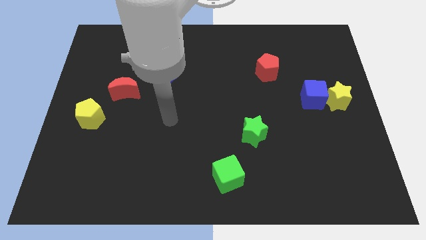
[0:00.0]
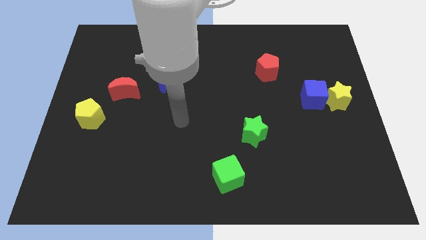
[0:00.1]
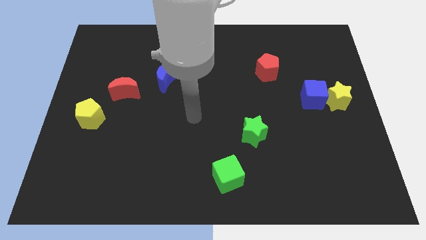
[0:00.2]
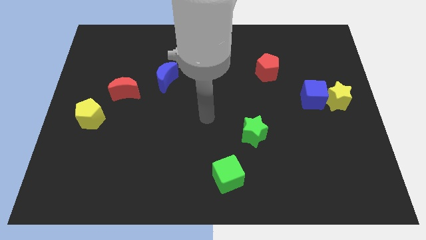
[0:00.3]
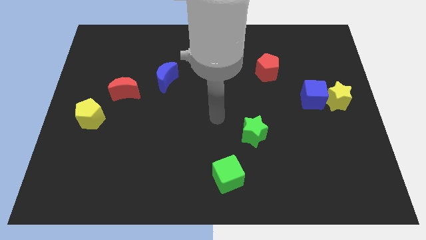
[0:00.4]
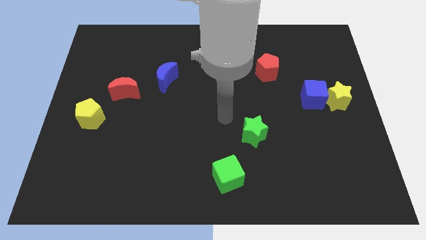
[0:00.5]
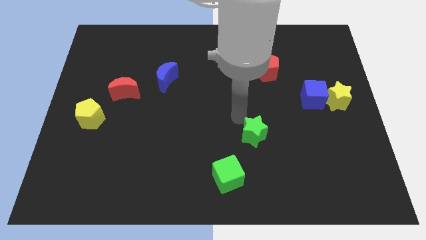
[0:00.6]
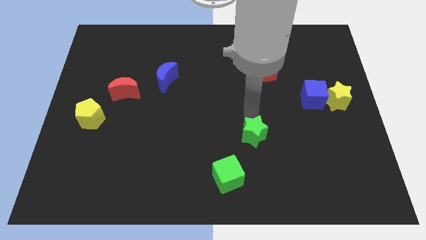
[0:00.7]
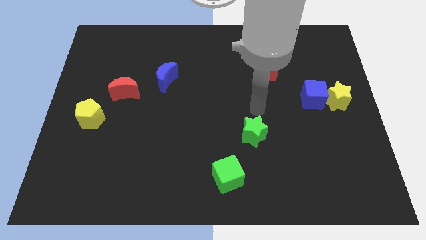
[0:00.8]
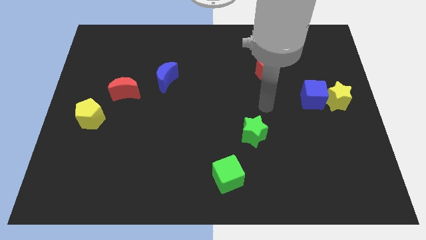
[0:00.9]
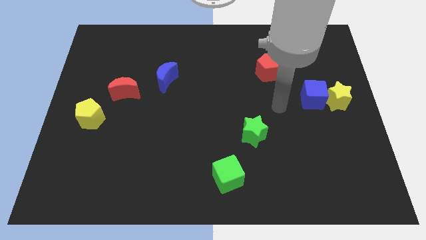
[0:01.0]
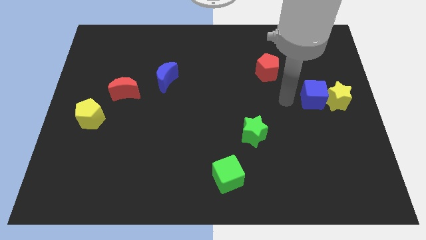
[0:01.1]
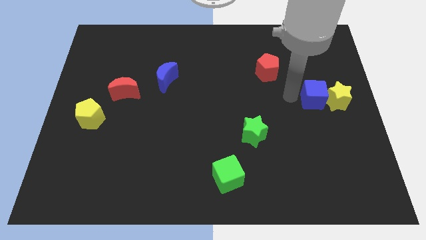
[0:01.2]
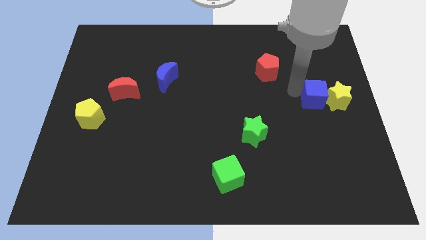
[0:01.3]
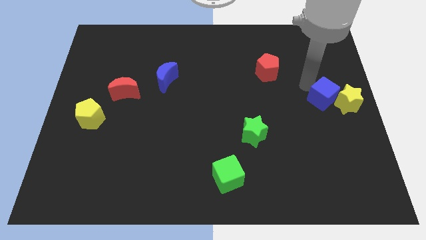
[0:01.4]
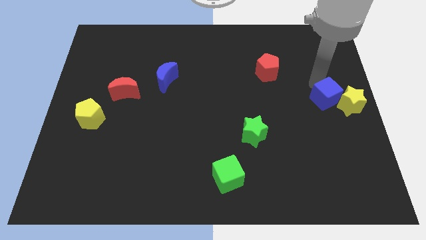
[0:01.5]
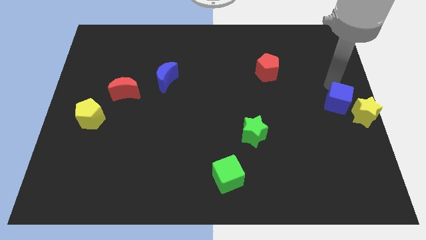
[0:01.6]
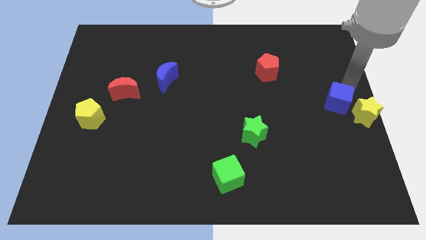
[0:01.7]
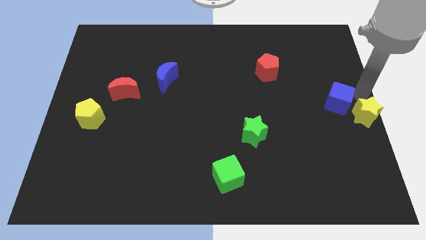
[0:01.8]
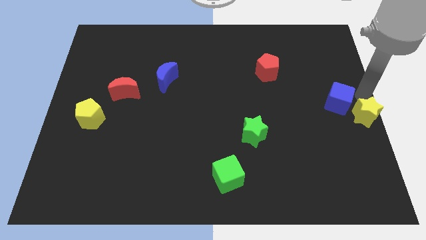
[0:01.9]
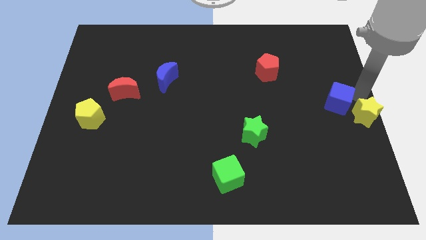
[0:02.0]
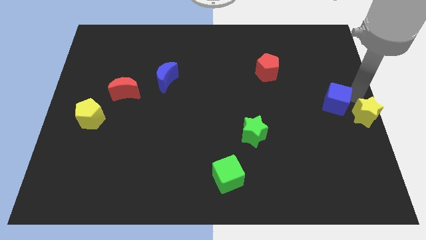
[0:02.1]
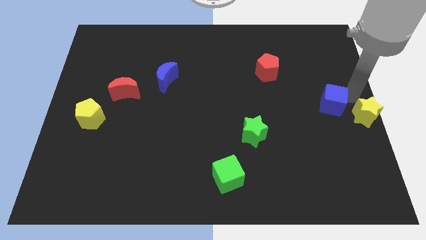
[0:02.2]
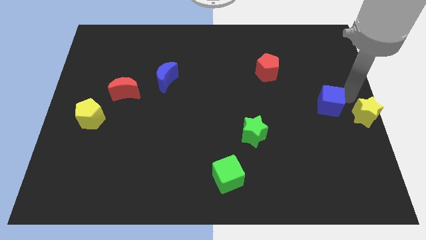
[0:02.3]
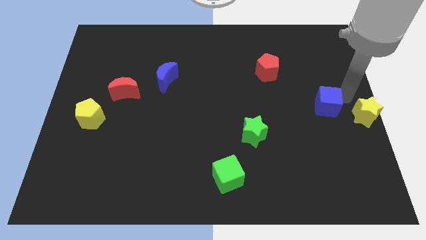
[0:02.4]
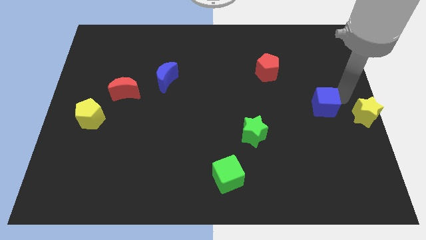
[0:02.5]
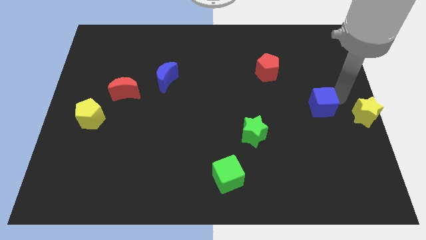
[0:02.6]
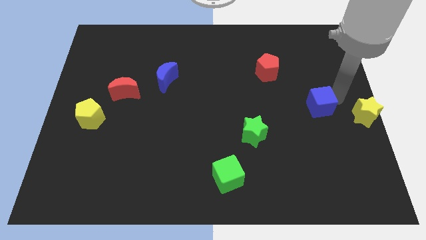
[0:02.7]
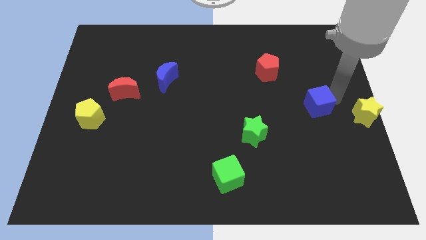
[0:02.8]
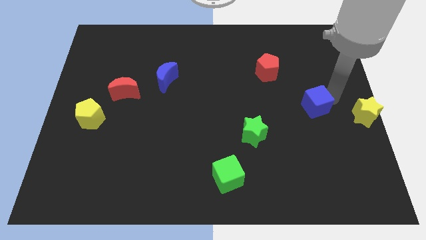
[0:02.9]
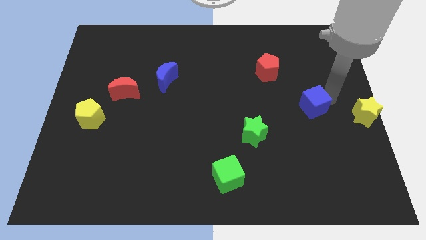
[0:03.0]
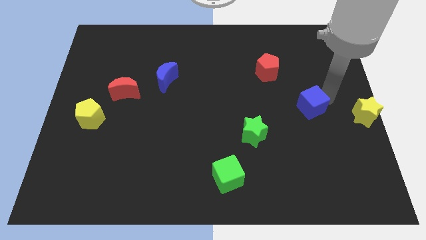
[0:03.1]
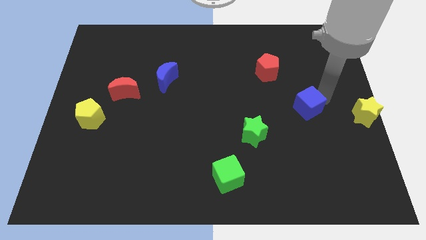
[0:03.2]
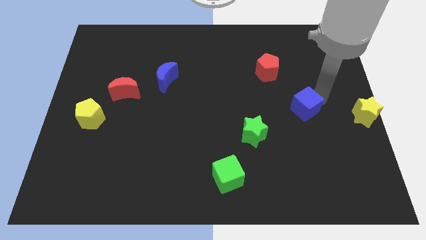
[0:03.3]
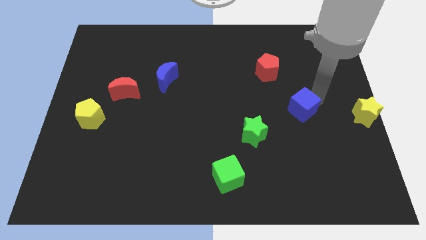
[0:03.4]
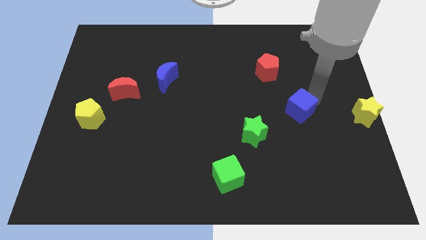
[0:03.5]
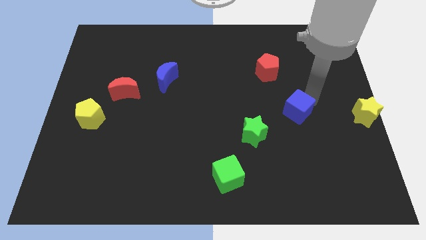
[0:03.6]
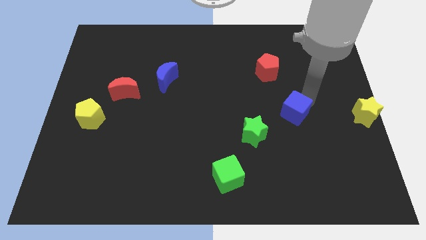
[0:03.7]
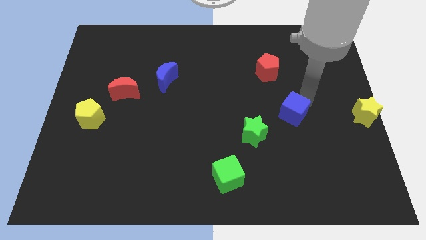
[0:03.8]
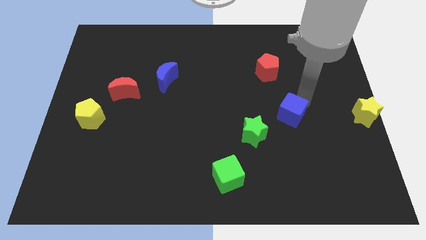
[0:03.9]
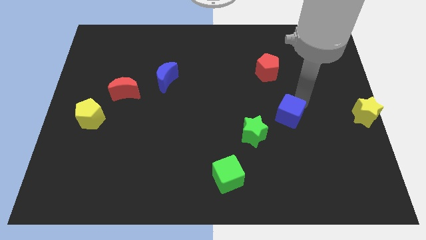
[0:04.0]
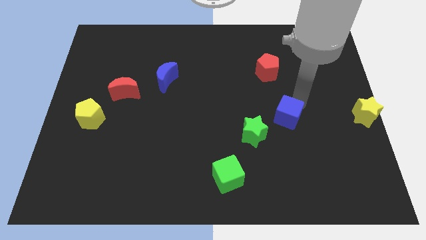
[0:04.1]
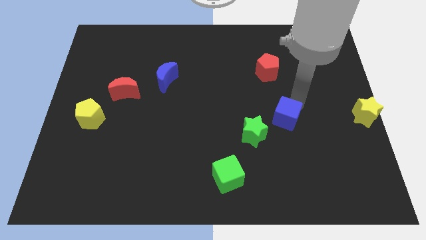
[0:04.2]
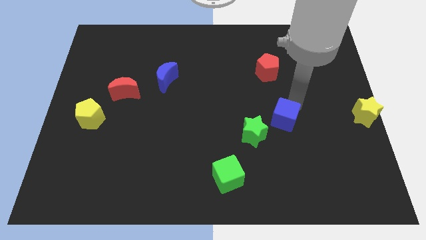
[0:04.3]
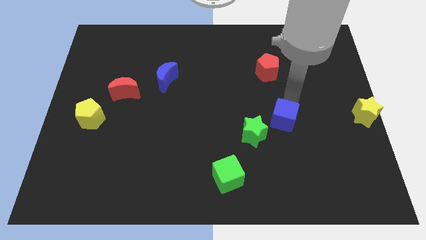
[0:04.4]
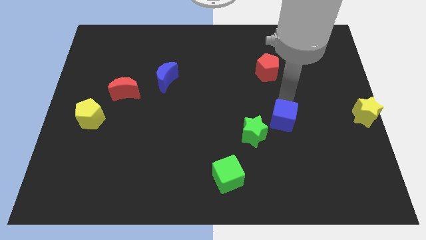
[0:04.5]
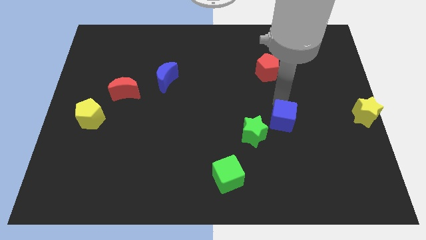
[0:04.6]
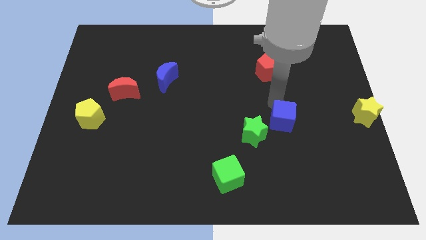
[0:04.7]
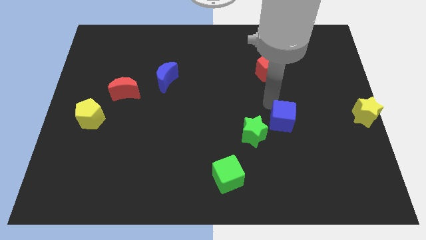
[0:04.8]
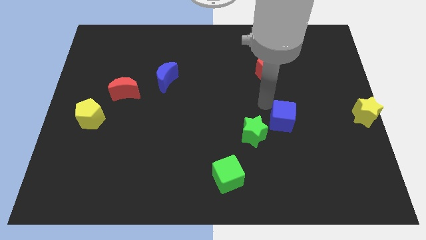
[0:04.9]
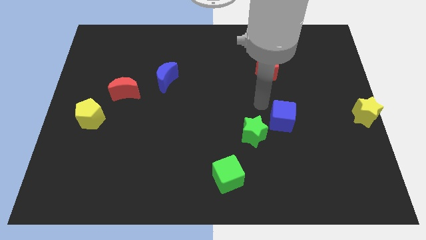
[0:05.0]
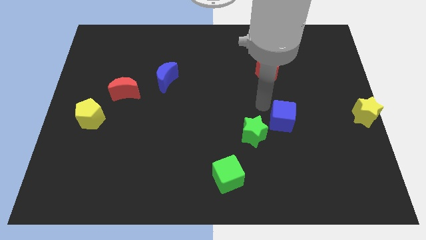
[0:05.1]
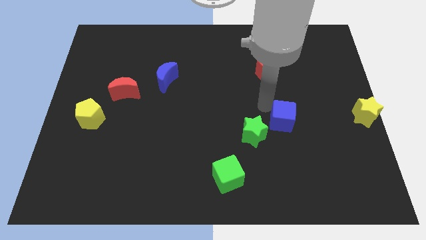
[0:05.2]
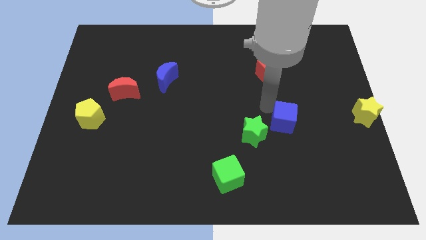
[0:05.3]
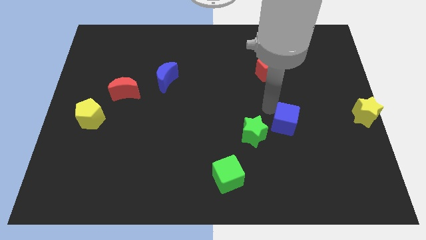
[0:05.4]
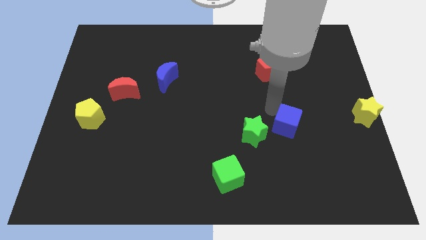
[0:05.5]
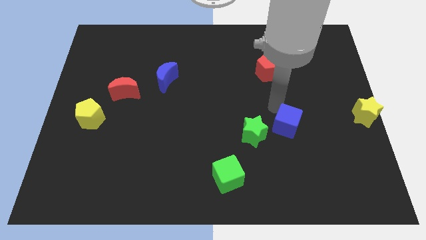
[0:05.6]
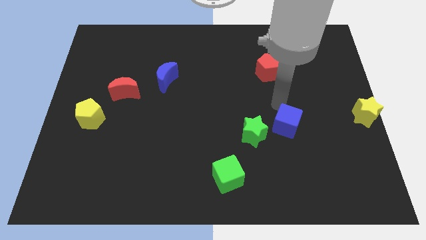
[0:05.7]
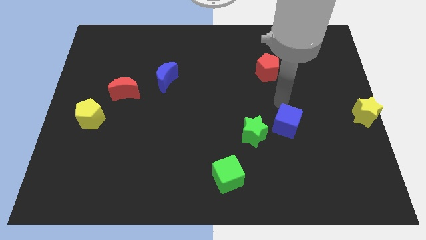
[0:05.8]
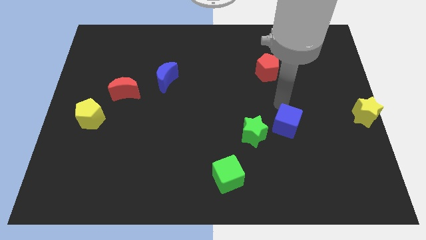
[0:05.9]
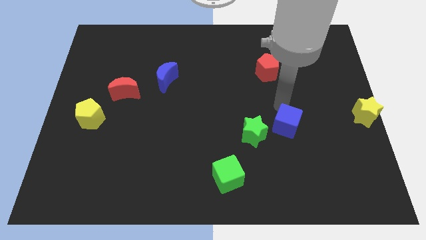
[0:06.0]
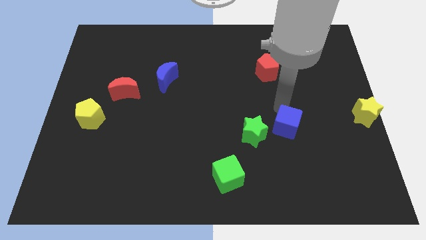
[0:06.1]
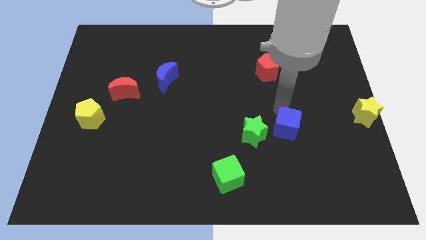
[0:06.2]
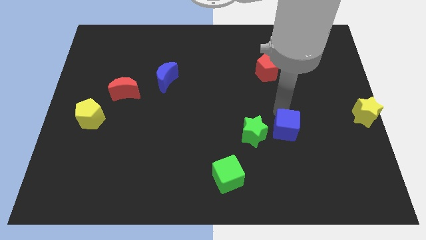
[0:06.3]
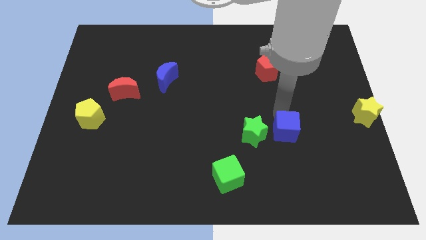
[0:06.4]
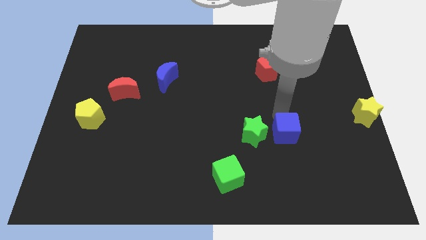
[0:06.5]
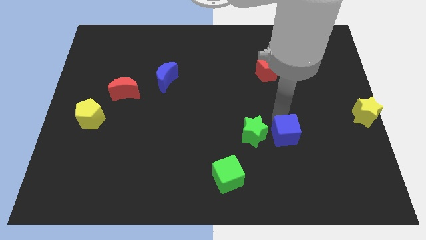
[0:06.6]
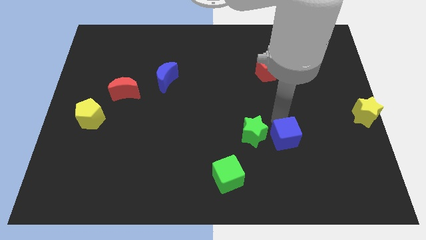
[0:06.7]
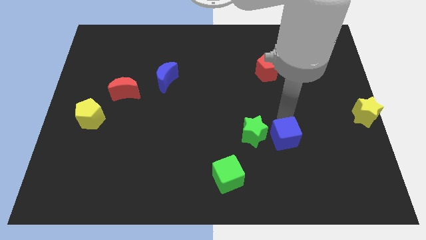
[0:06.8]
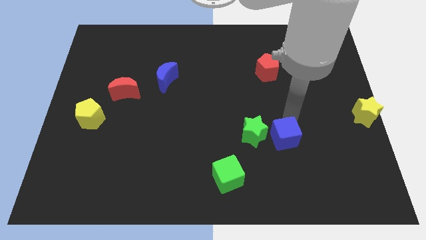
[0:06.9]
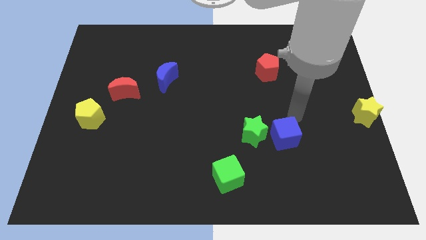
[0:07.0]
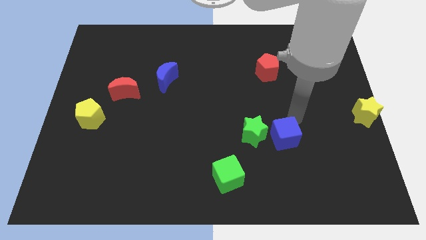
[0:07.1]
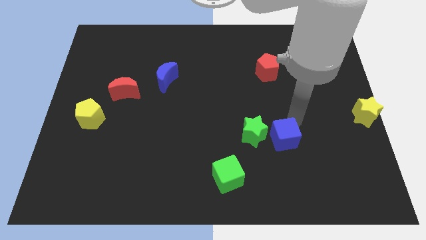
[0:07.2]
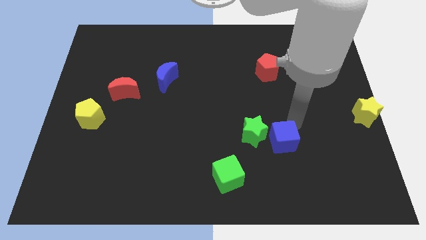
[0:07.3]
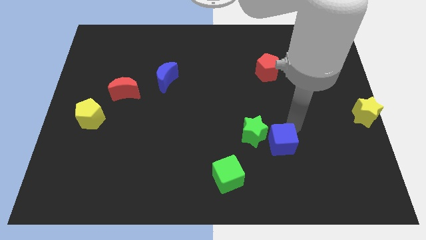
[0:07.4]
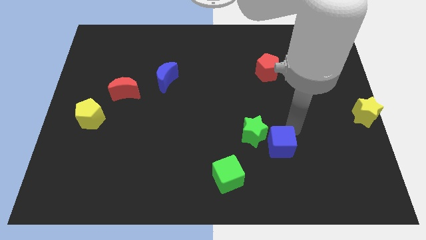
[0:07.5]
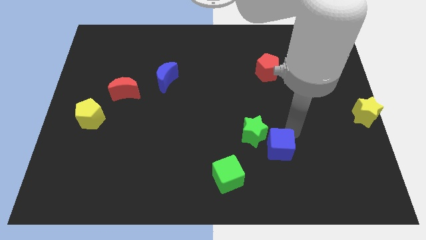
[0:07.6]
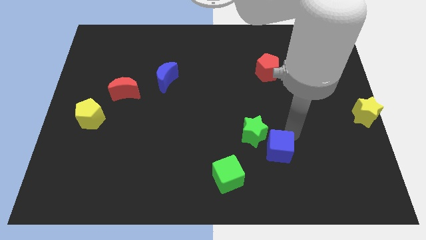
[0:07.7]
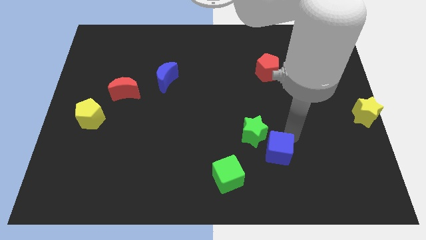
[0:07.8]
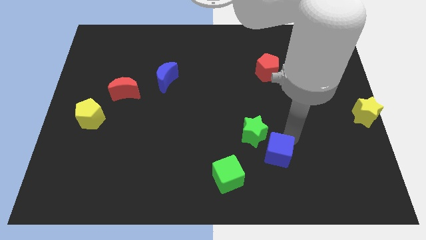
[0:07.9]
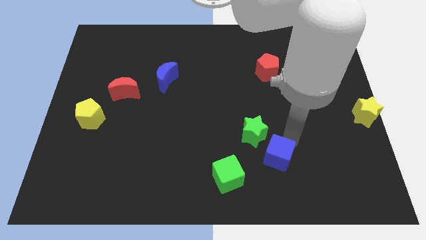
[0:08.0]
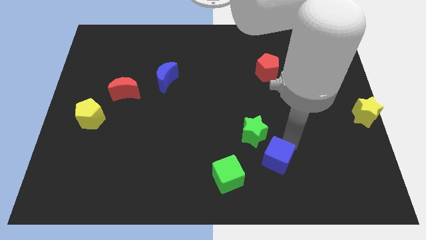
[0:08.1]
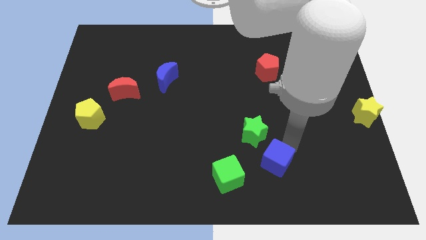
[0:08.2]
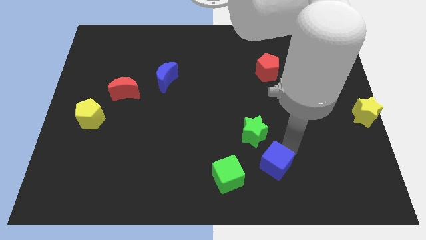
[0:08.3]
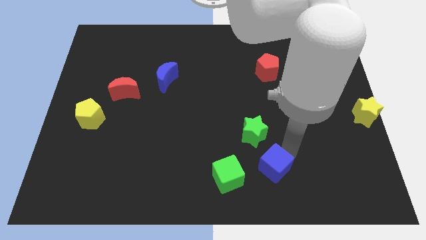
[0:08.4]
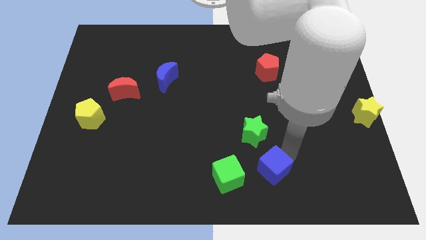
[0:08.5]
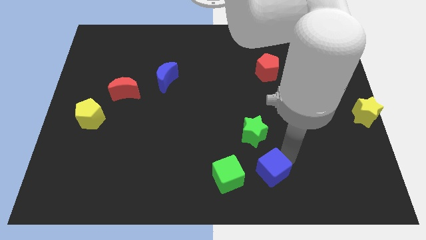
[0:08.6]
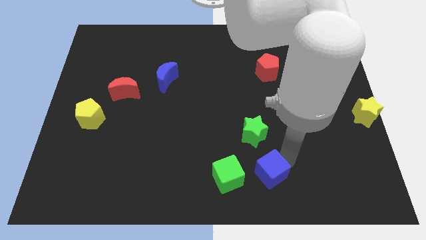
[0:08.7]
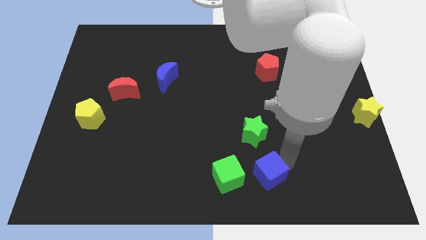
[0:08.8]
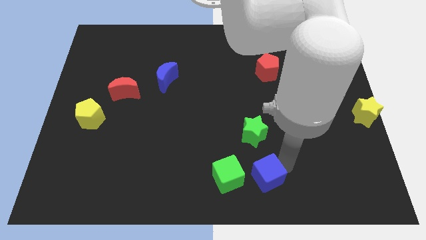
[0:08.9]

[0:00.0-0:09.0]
move the blue cube to the bottom
